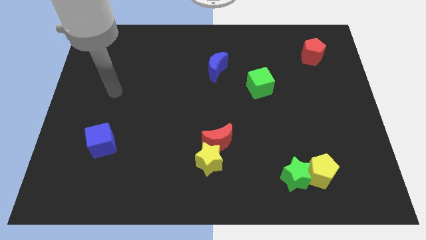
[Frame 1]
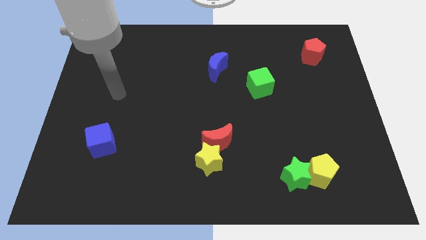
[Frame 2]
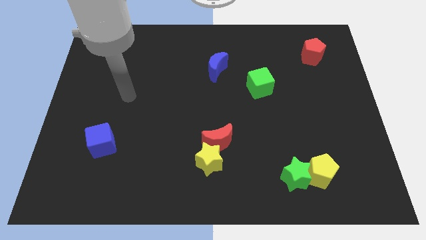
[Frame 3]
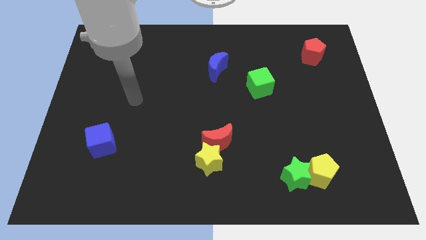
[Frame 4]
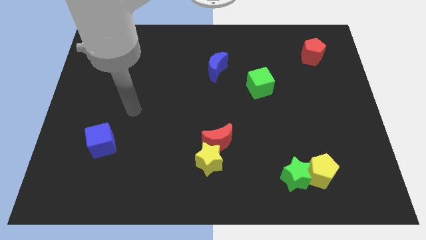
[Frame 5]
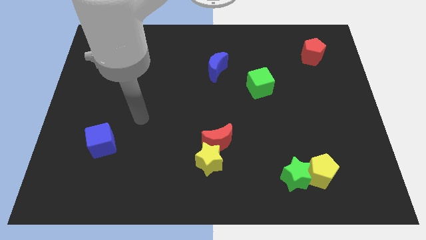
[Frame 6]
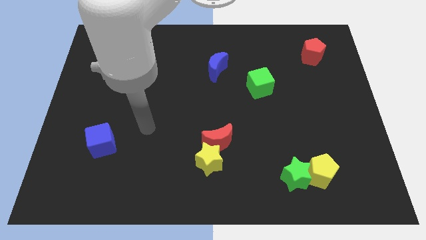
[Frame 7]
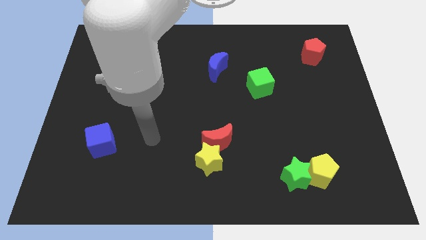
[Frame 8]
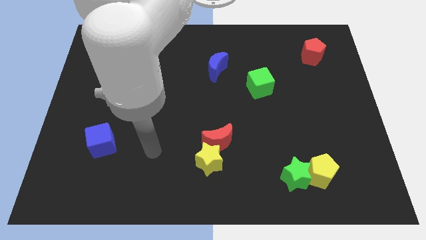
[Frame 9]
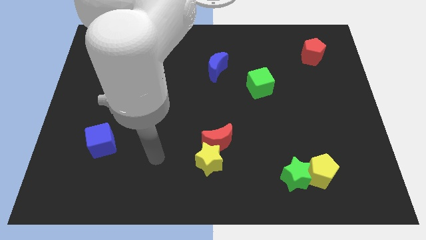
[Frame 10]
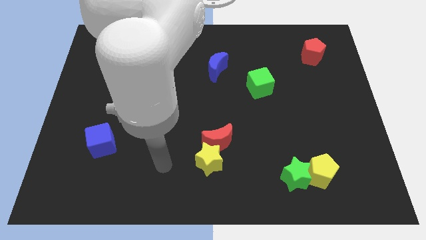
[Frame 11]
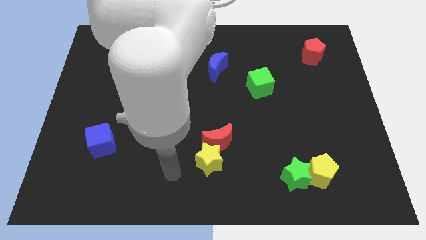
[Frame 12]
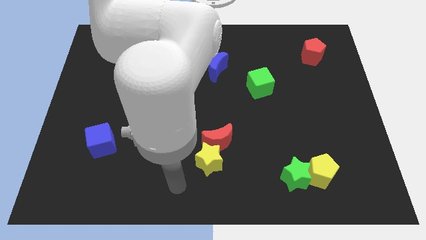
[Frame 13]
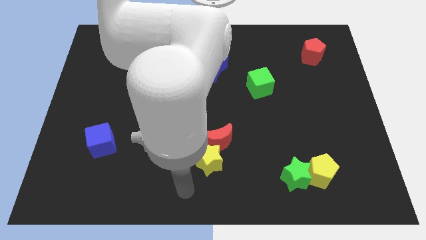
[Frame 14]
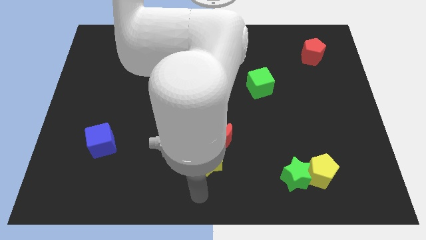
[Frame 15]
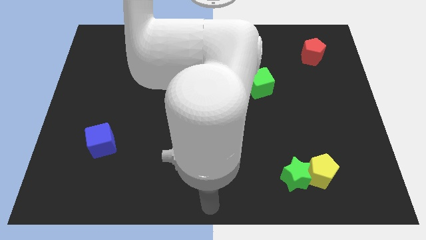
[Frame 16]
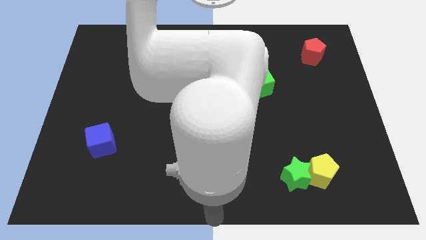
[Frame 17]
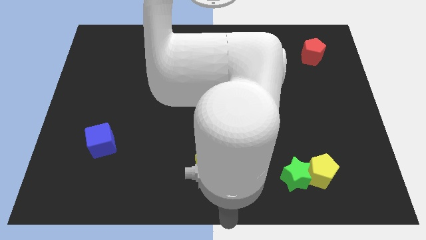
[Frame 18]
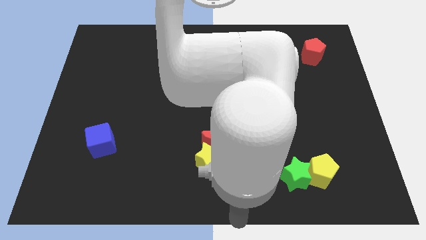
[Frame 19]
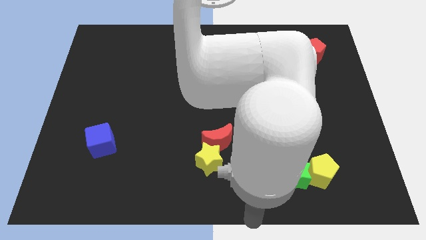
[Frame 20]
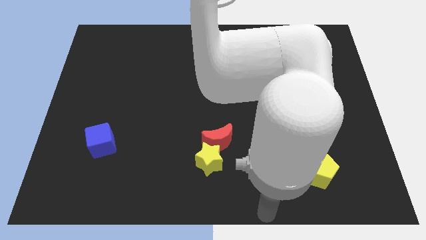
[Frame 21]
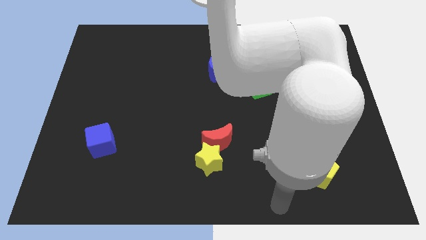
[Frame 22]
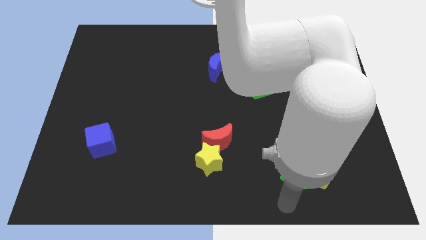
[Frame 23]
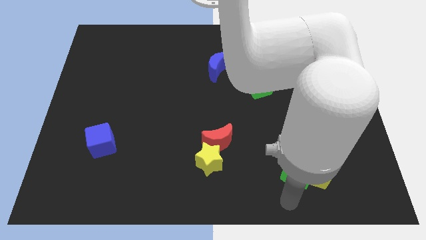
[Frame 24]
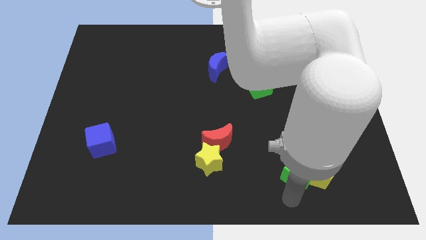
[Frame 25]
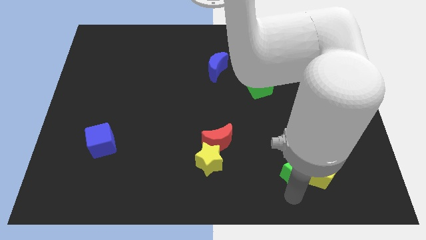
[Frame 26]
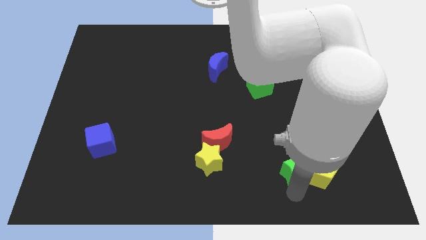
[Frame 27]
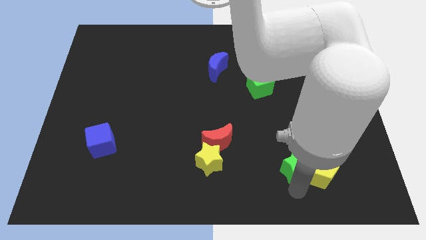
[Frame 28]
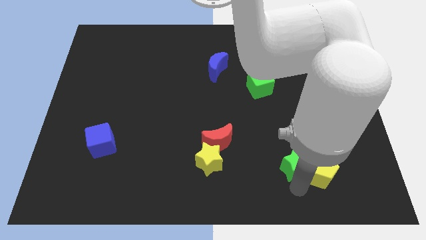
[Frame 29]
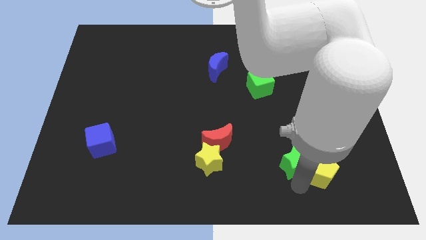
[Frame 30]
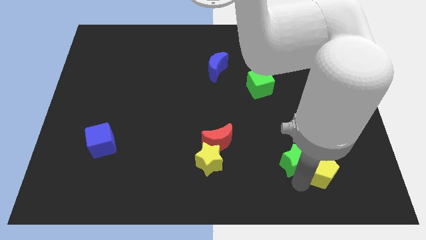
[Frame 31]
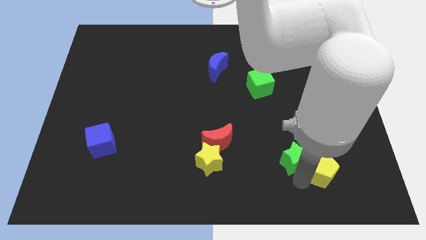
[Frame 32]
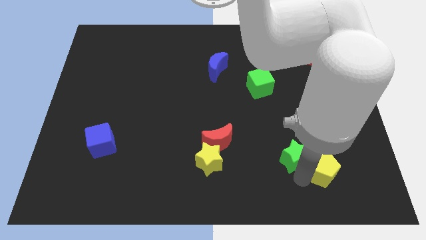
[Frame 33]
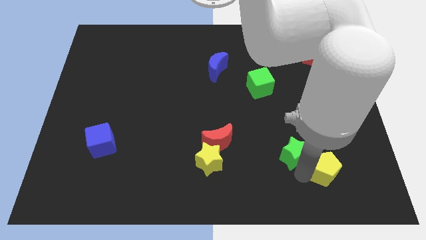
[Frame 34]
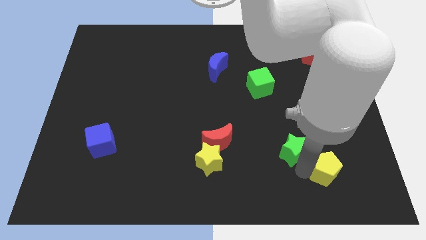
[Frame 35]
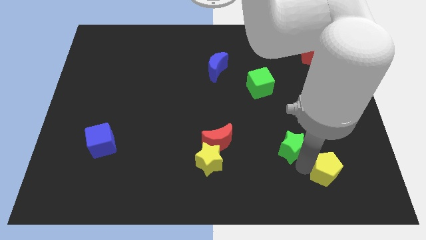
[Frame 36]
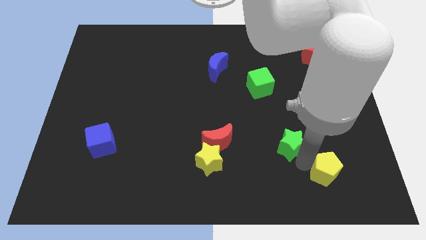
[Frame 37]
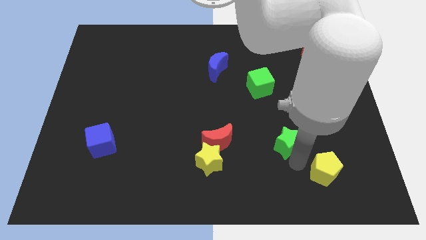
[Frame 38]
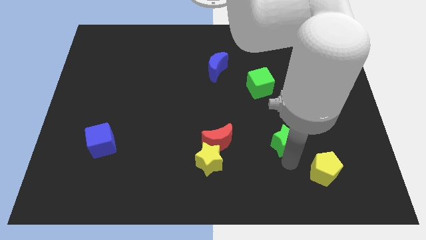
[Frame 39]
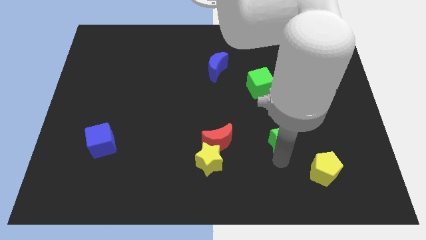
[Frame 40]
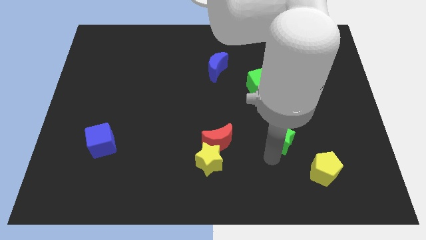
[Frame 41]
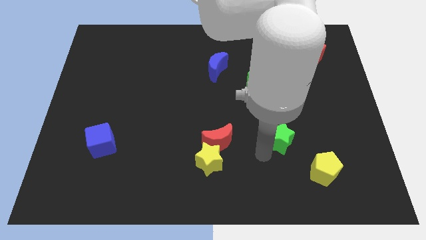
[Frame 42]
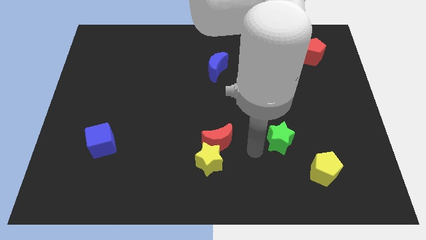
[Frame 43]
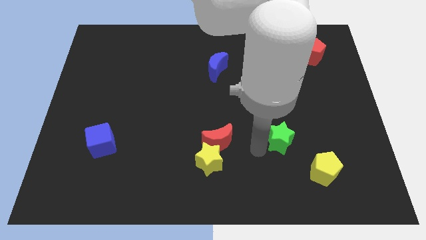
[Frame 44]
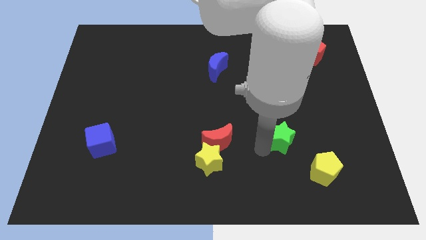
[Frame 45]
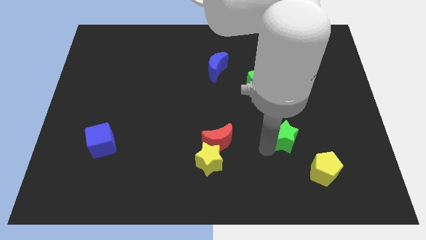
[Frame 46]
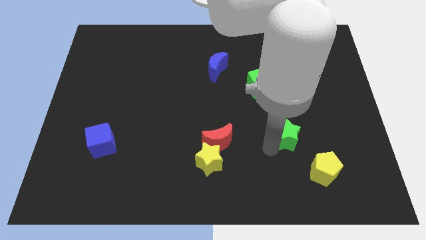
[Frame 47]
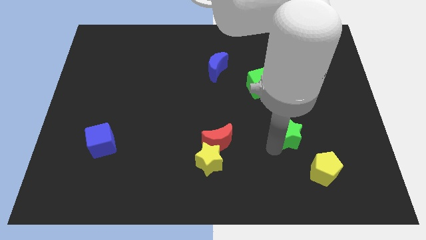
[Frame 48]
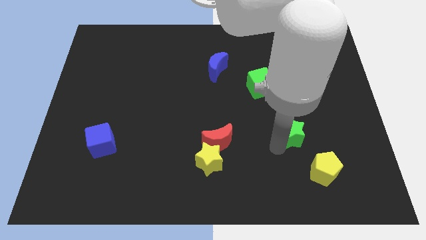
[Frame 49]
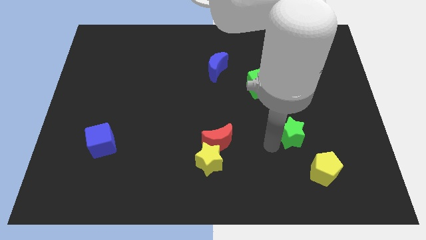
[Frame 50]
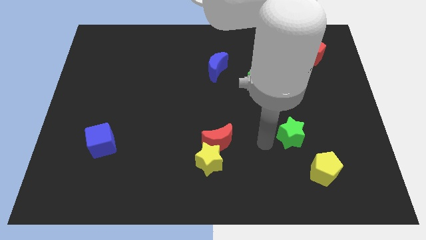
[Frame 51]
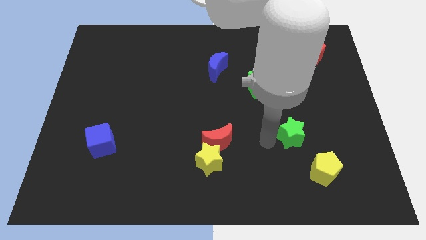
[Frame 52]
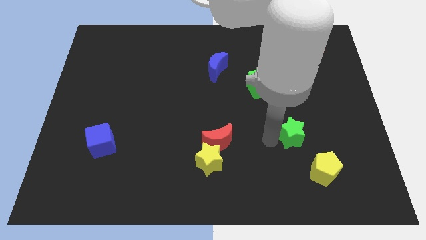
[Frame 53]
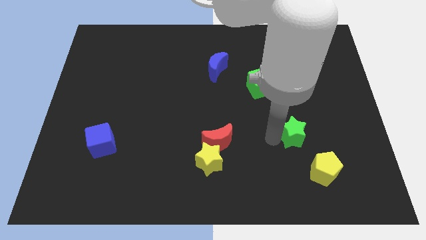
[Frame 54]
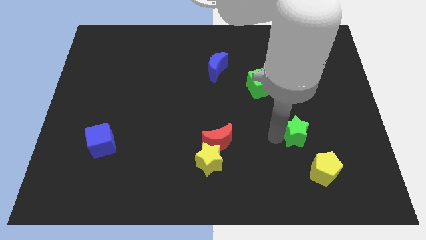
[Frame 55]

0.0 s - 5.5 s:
slide the green star above the yellow pentagon

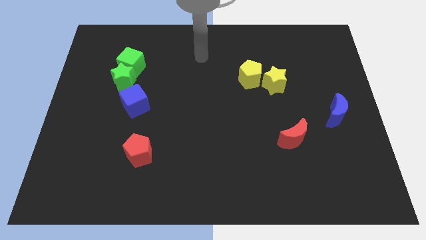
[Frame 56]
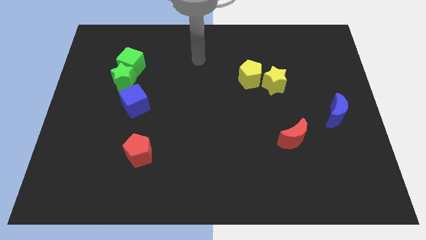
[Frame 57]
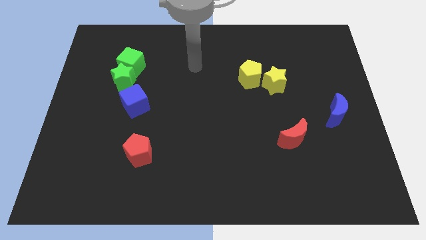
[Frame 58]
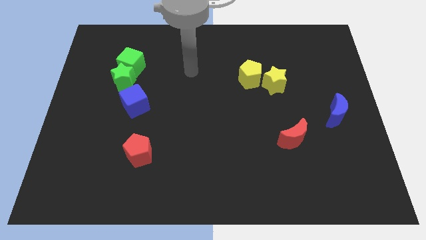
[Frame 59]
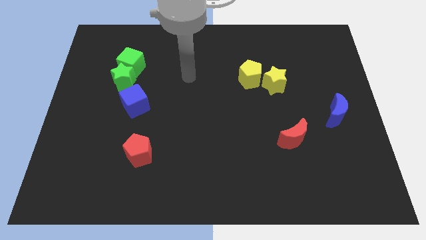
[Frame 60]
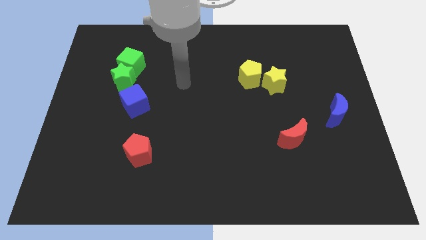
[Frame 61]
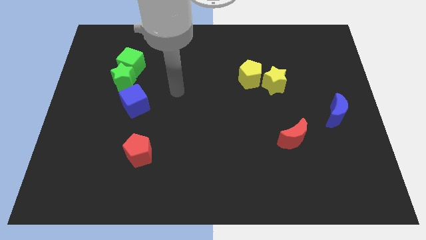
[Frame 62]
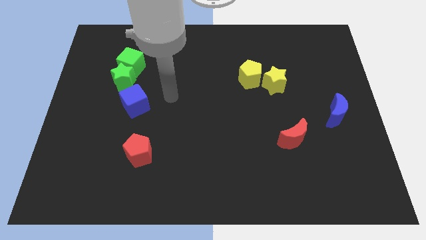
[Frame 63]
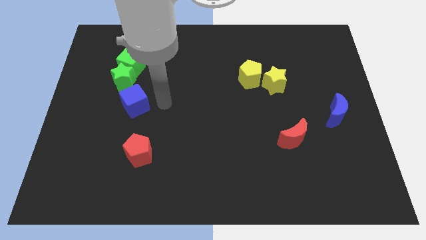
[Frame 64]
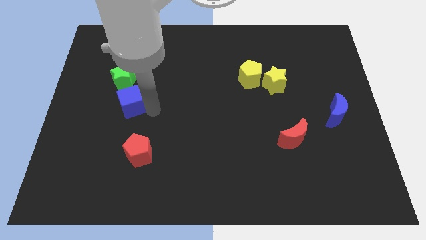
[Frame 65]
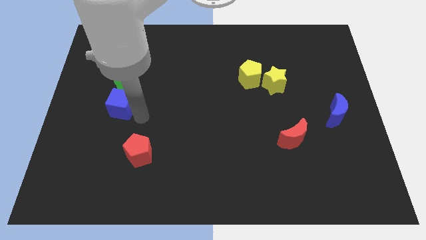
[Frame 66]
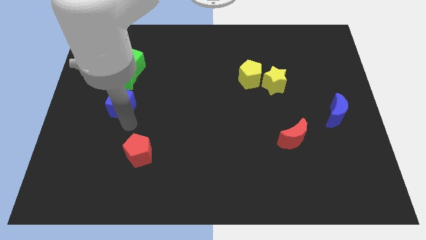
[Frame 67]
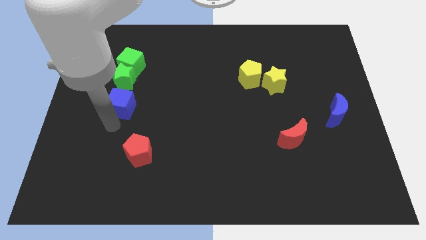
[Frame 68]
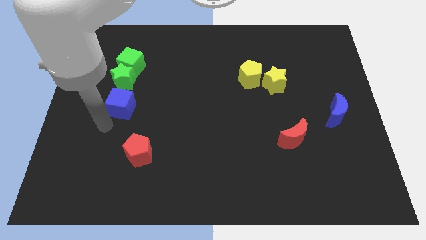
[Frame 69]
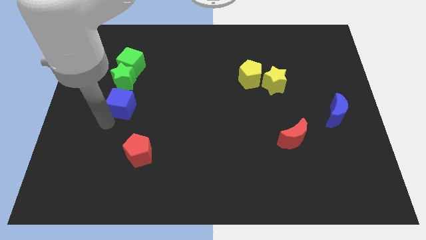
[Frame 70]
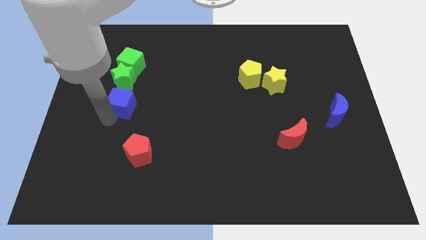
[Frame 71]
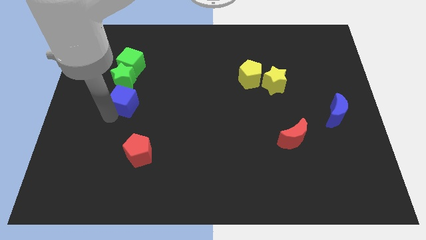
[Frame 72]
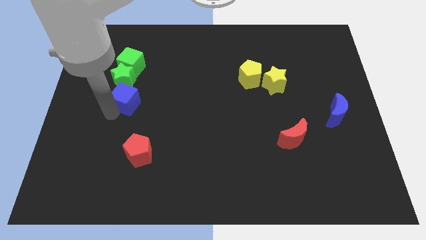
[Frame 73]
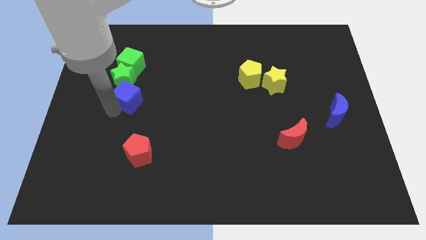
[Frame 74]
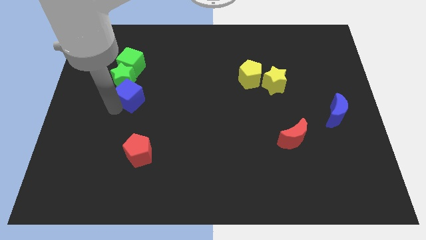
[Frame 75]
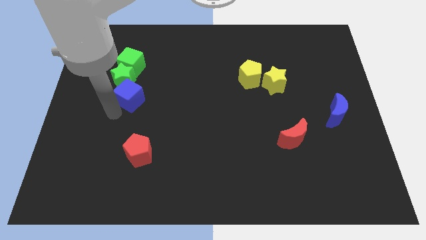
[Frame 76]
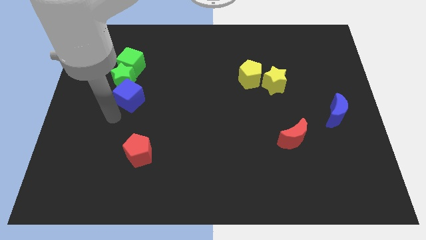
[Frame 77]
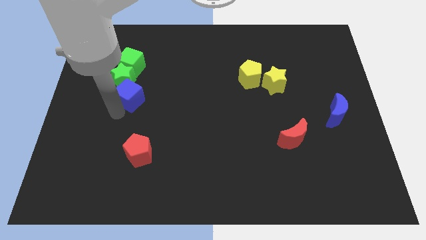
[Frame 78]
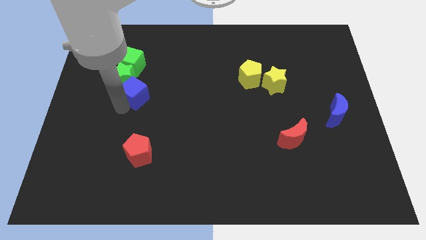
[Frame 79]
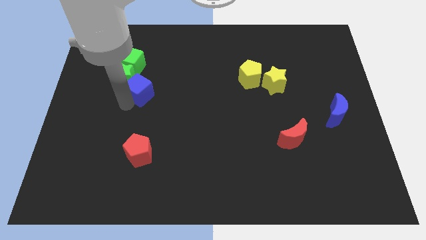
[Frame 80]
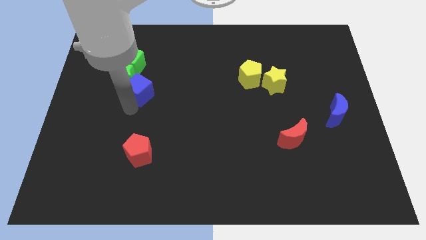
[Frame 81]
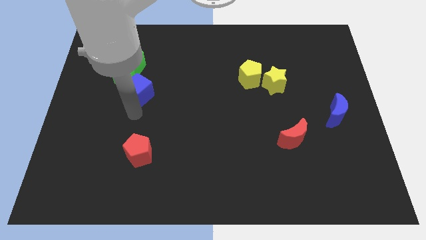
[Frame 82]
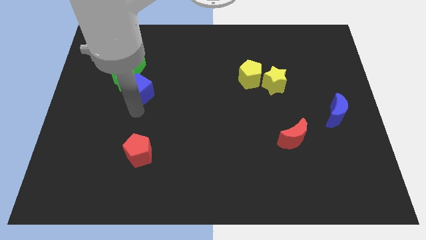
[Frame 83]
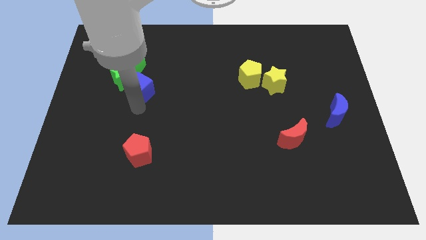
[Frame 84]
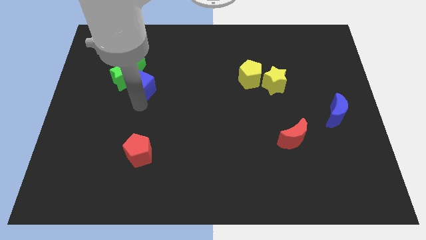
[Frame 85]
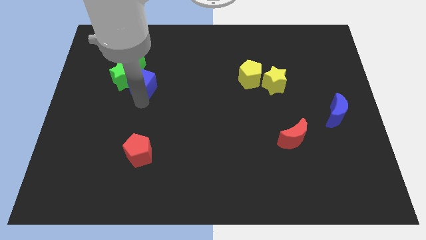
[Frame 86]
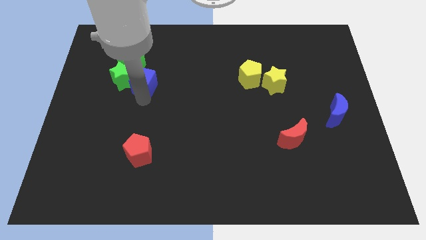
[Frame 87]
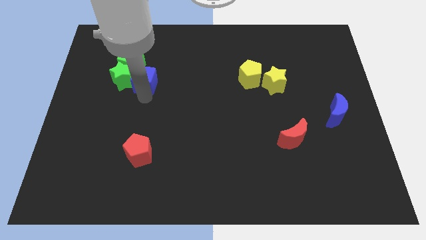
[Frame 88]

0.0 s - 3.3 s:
slide the blue cube diagonally up and to the right of the green star
